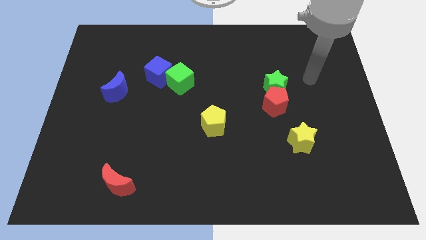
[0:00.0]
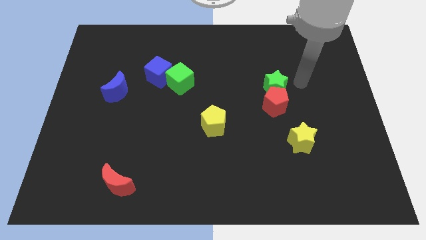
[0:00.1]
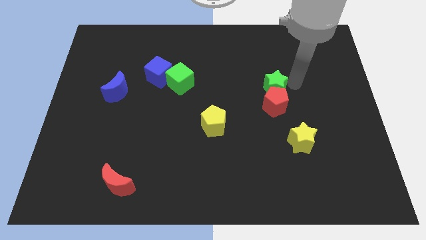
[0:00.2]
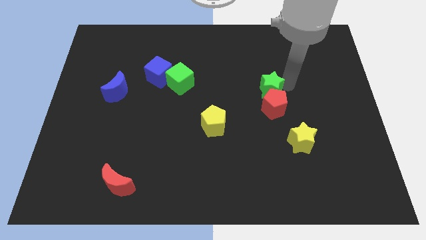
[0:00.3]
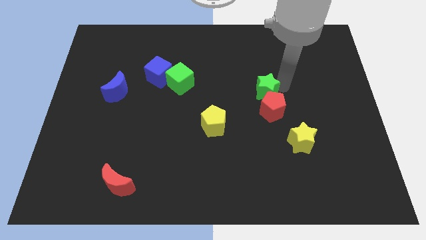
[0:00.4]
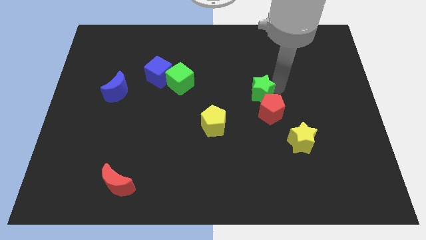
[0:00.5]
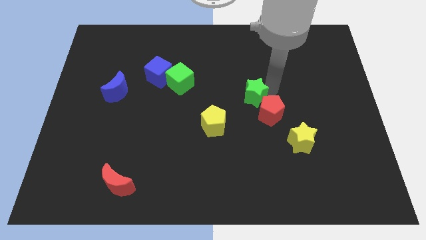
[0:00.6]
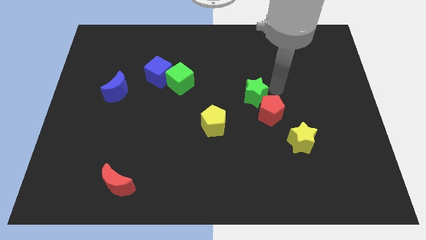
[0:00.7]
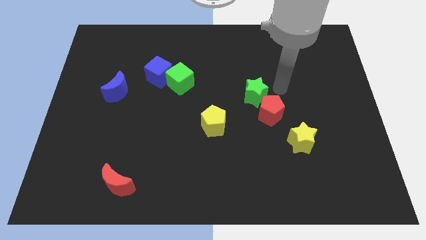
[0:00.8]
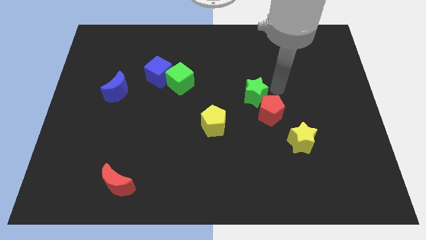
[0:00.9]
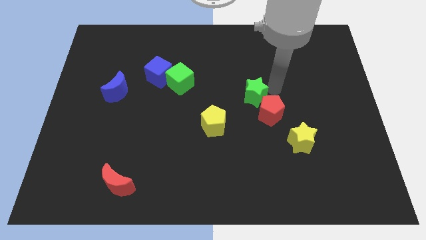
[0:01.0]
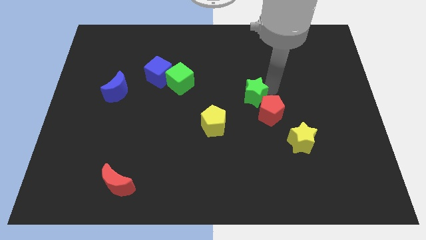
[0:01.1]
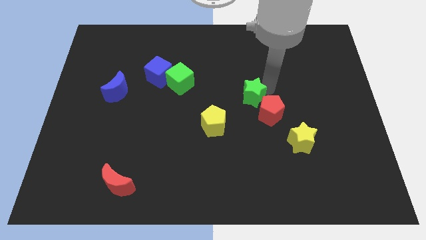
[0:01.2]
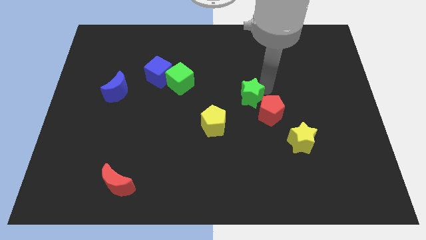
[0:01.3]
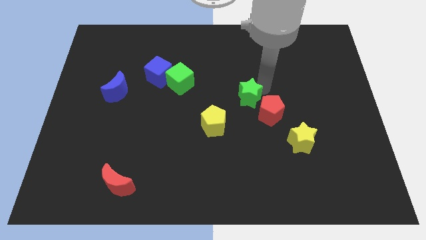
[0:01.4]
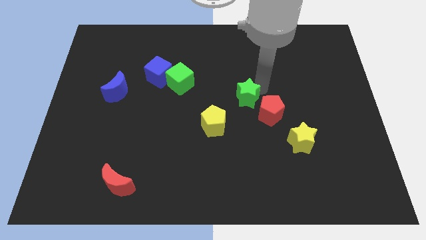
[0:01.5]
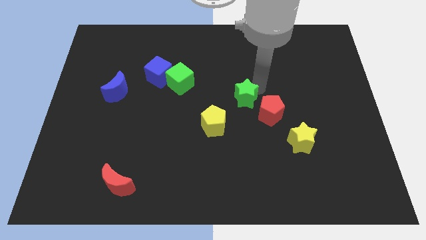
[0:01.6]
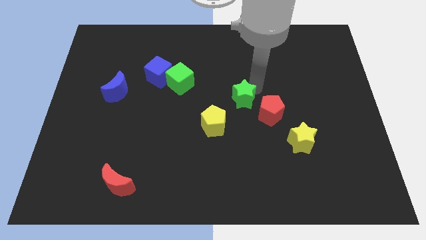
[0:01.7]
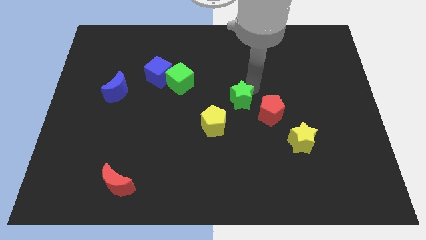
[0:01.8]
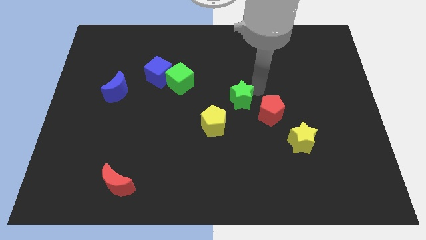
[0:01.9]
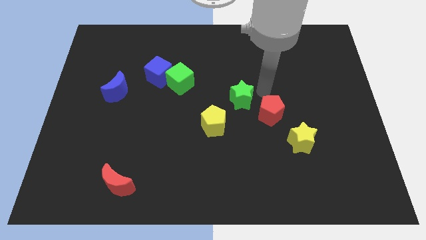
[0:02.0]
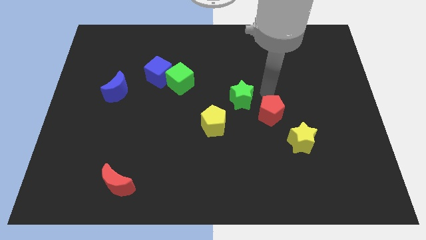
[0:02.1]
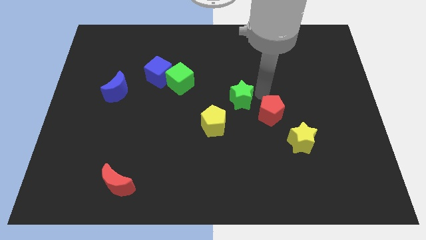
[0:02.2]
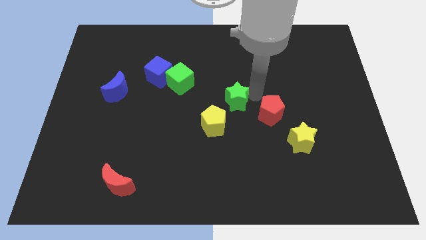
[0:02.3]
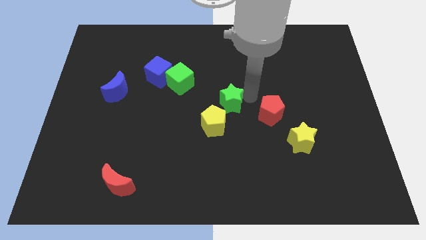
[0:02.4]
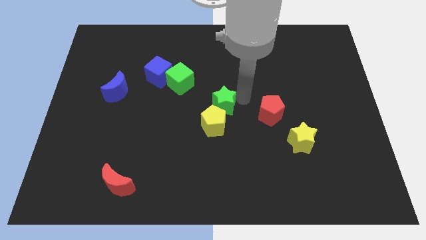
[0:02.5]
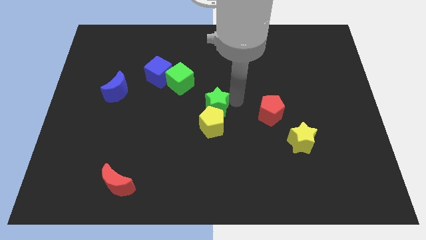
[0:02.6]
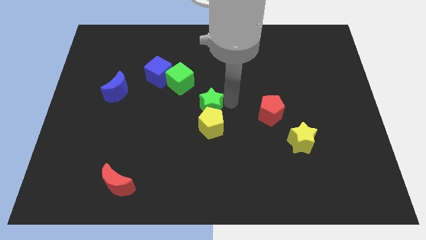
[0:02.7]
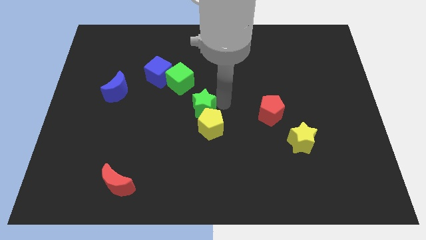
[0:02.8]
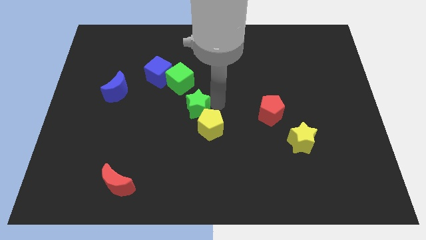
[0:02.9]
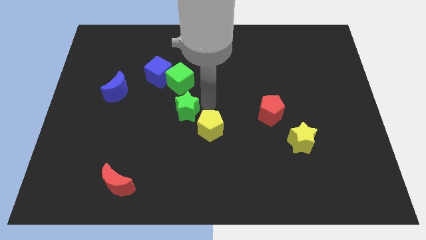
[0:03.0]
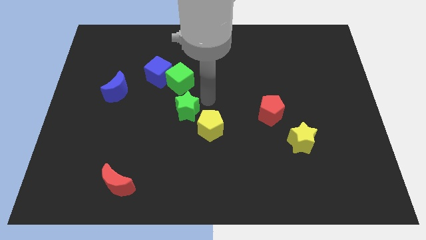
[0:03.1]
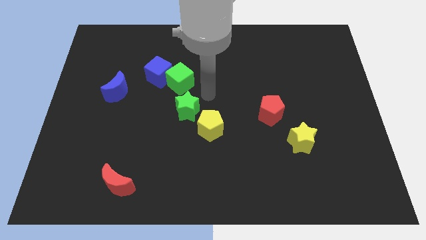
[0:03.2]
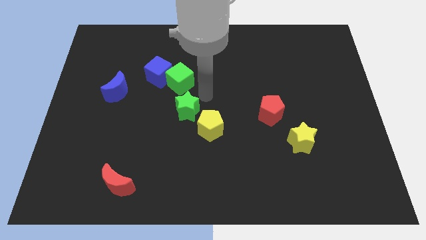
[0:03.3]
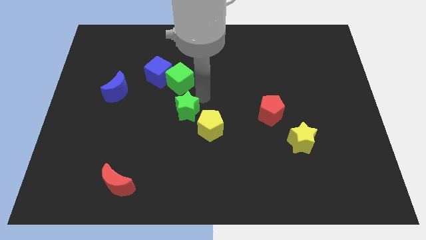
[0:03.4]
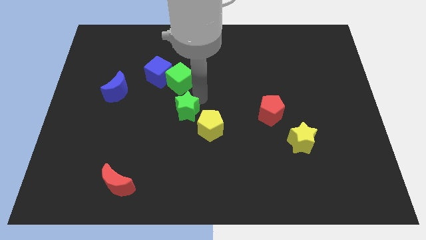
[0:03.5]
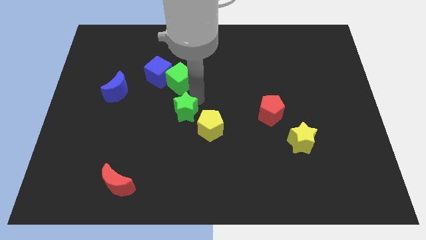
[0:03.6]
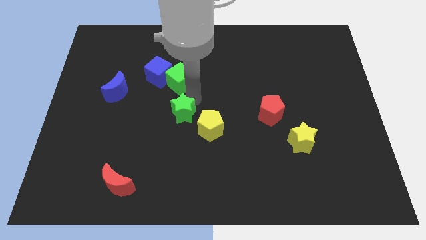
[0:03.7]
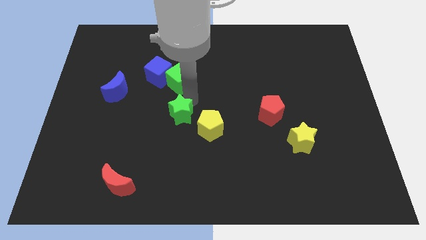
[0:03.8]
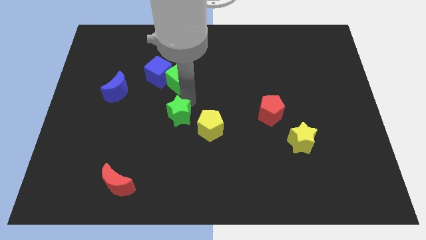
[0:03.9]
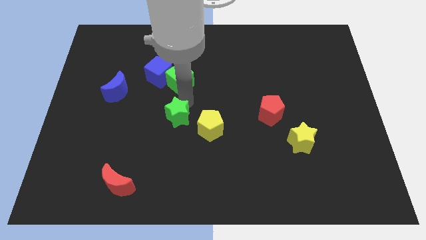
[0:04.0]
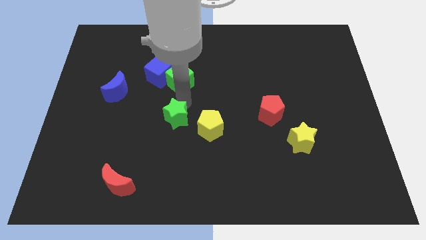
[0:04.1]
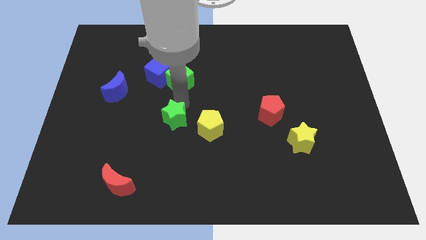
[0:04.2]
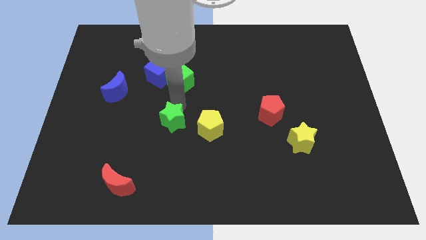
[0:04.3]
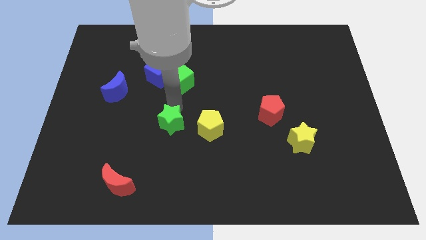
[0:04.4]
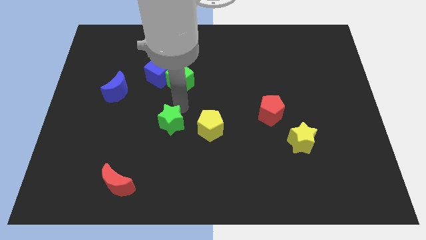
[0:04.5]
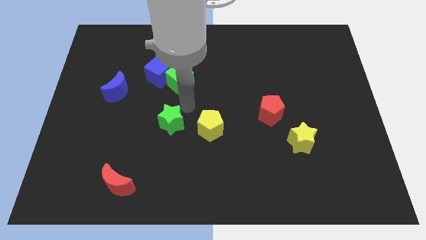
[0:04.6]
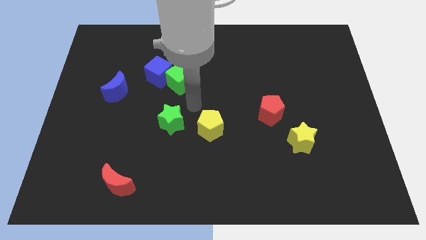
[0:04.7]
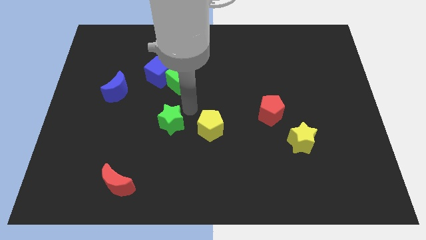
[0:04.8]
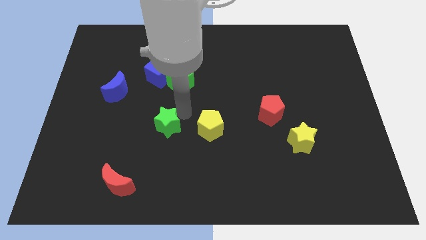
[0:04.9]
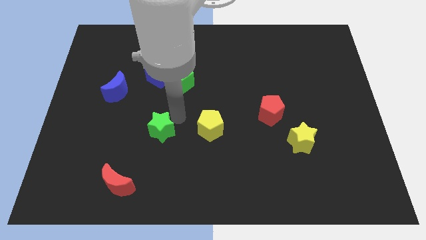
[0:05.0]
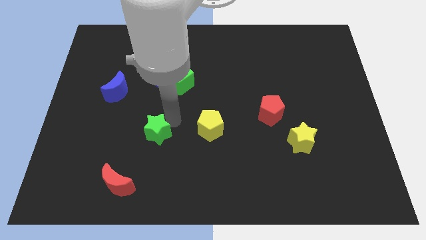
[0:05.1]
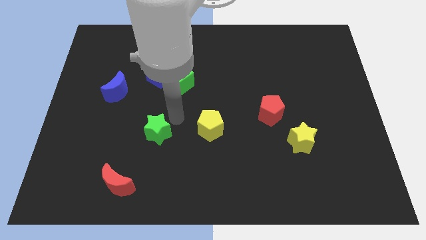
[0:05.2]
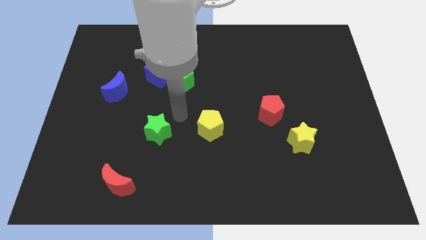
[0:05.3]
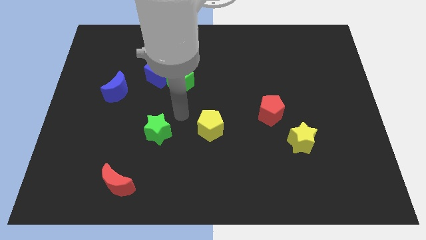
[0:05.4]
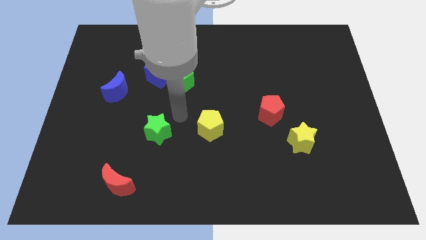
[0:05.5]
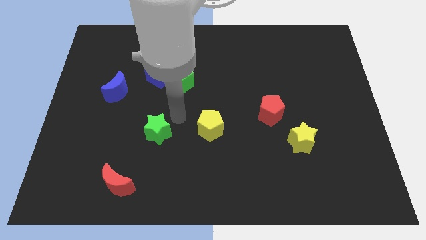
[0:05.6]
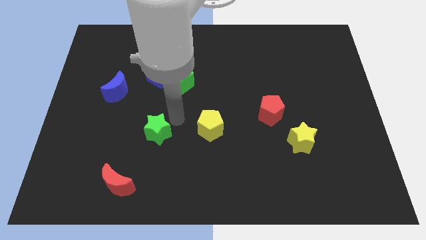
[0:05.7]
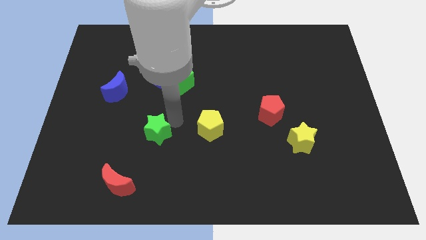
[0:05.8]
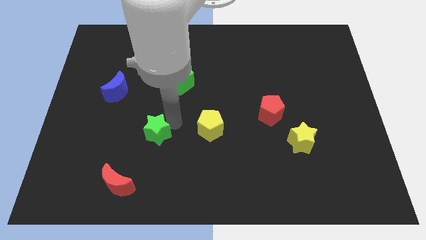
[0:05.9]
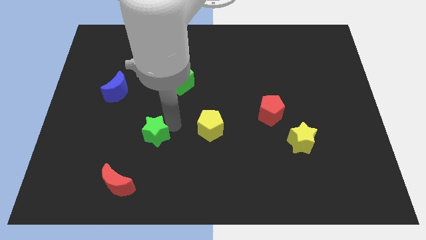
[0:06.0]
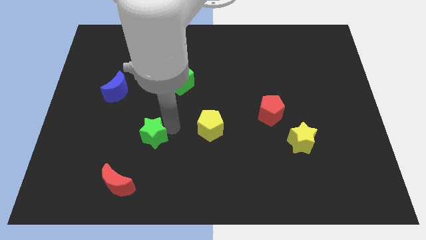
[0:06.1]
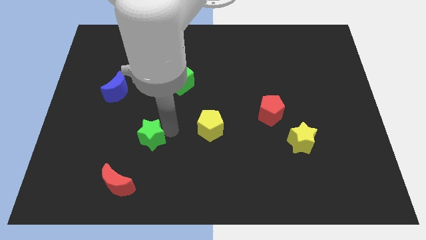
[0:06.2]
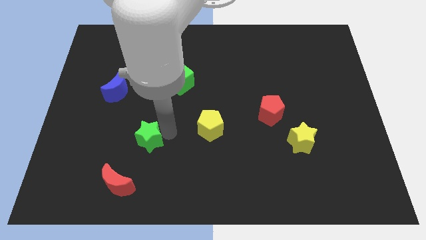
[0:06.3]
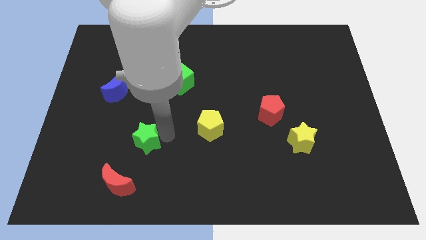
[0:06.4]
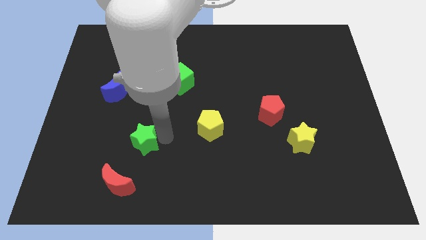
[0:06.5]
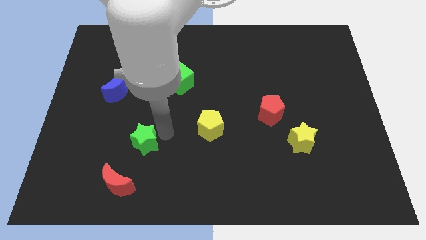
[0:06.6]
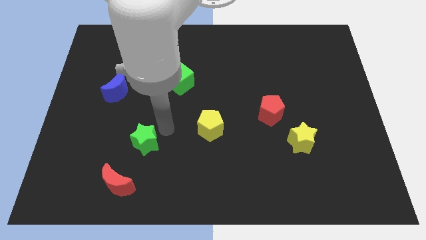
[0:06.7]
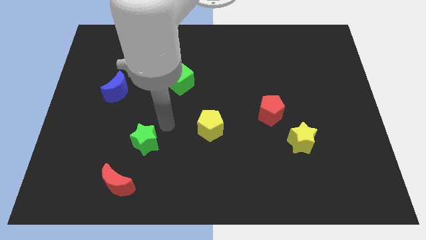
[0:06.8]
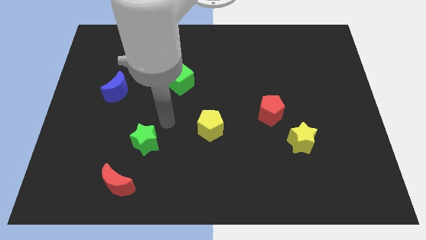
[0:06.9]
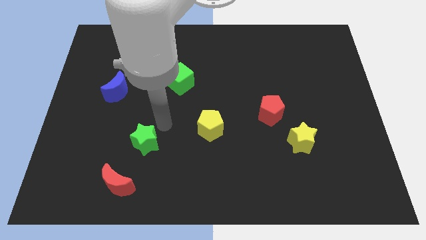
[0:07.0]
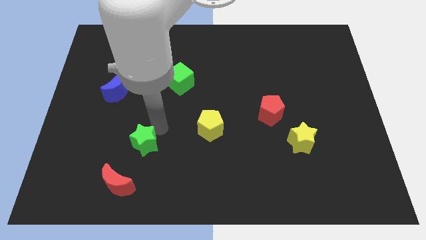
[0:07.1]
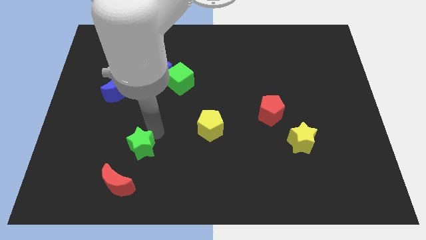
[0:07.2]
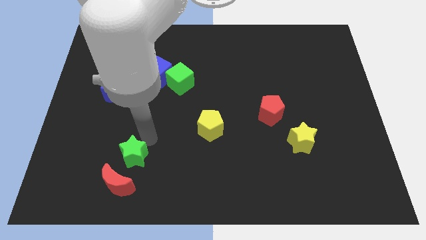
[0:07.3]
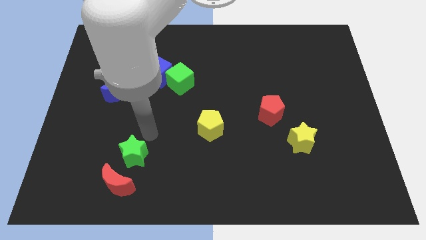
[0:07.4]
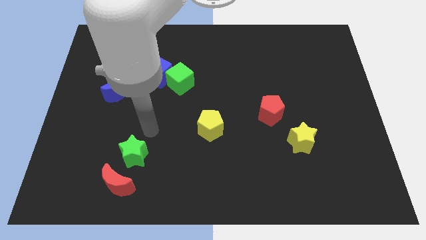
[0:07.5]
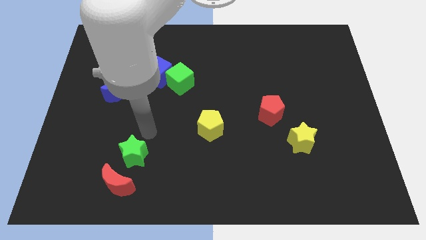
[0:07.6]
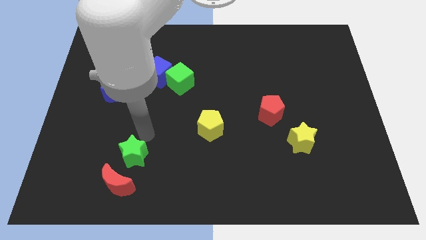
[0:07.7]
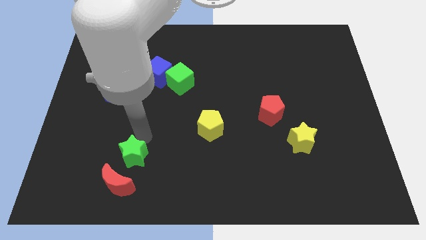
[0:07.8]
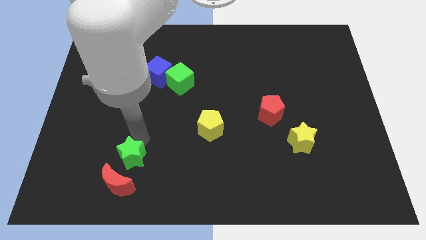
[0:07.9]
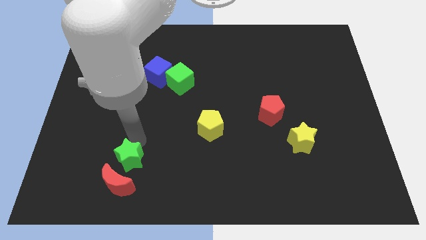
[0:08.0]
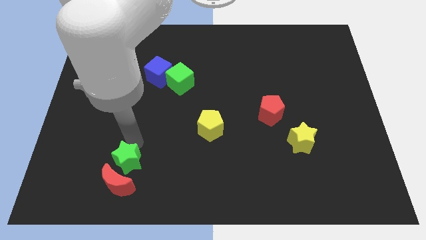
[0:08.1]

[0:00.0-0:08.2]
slide the green star next to the red moon
